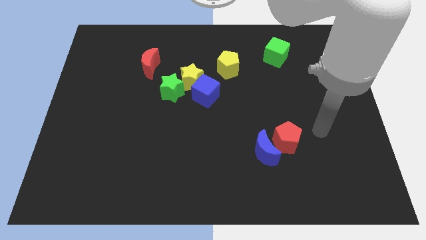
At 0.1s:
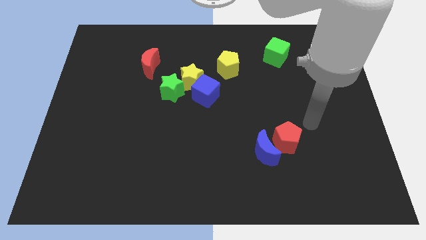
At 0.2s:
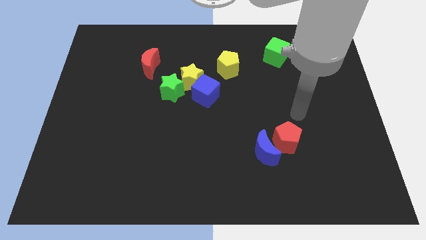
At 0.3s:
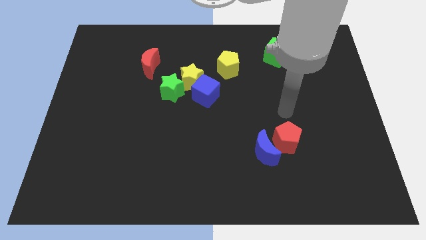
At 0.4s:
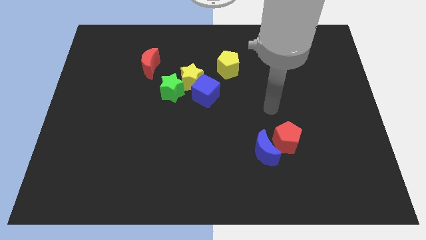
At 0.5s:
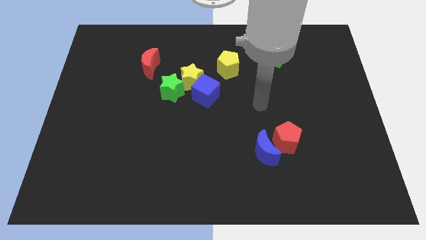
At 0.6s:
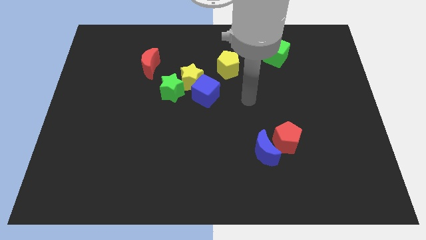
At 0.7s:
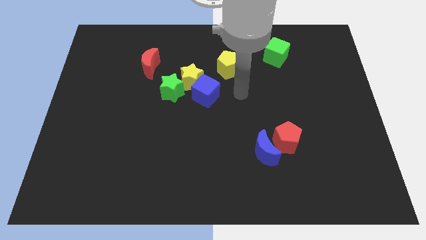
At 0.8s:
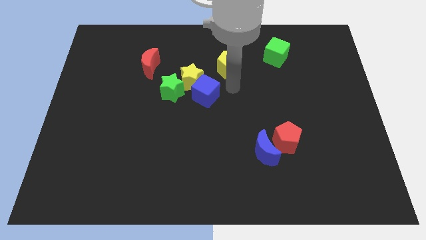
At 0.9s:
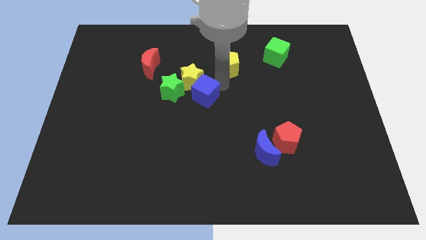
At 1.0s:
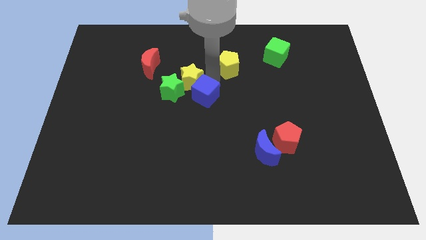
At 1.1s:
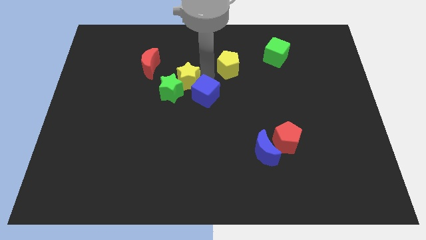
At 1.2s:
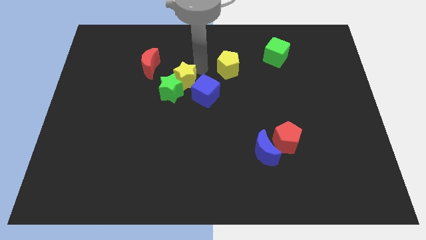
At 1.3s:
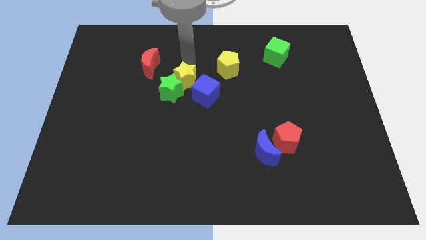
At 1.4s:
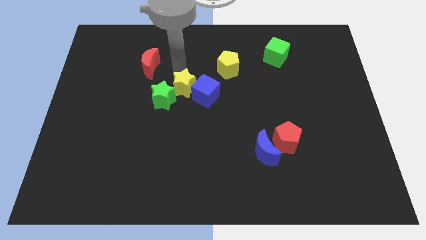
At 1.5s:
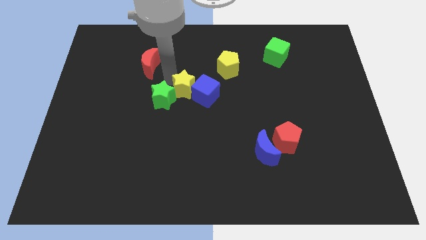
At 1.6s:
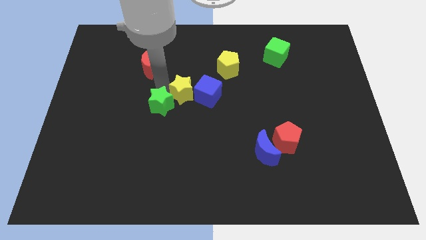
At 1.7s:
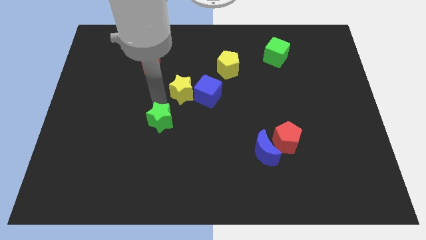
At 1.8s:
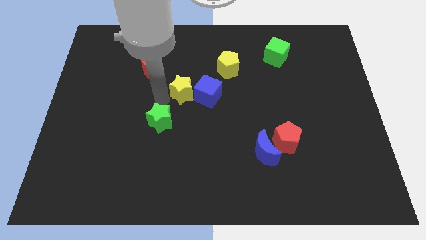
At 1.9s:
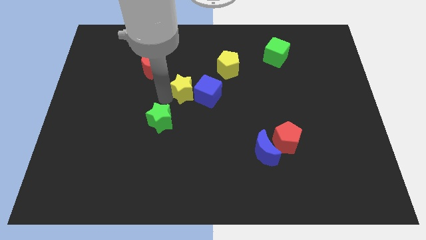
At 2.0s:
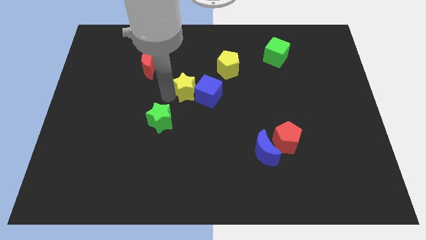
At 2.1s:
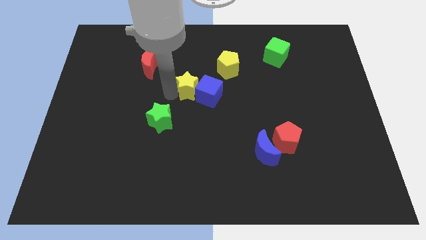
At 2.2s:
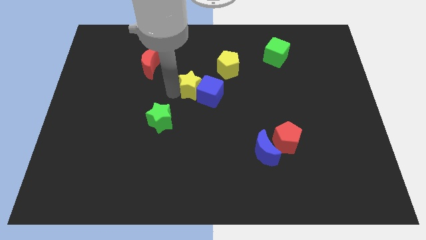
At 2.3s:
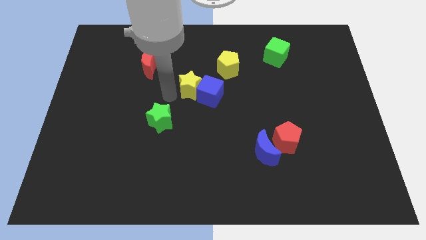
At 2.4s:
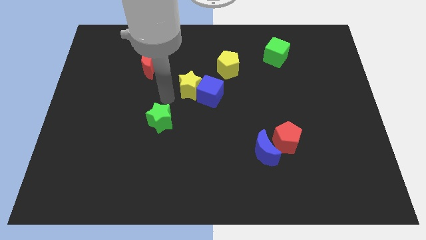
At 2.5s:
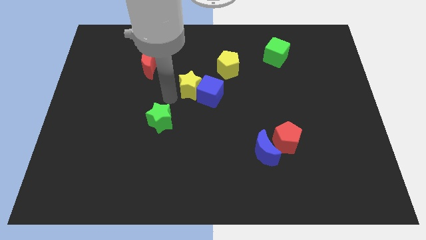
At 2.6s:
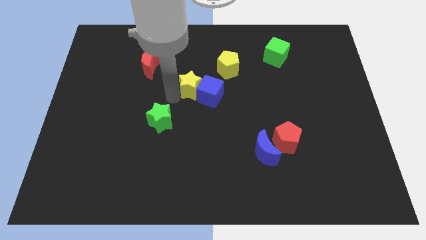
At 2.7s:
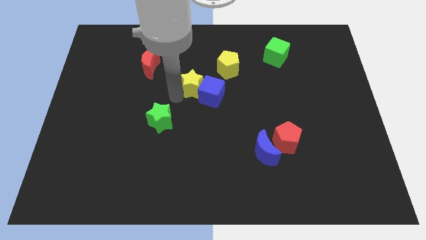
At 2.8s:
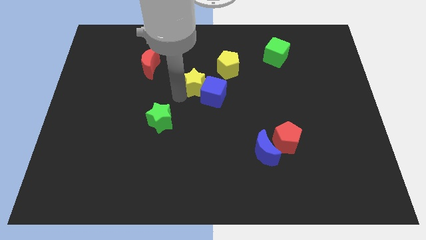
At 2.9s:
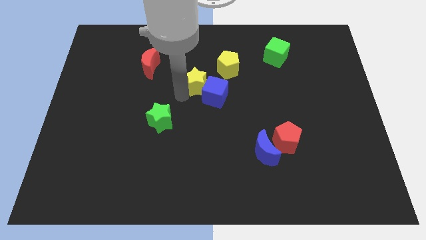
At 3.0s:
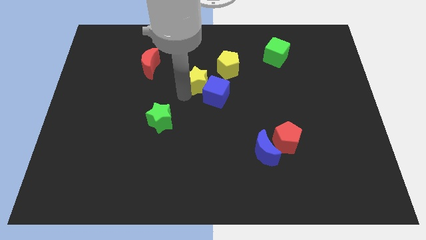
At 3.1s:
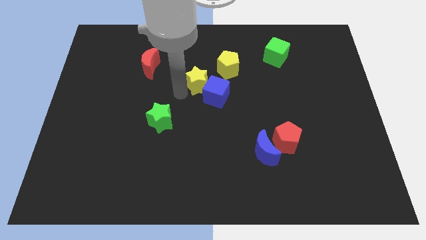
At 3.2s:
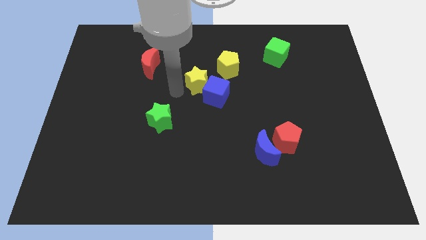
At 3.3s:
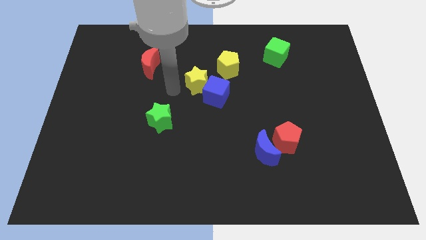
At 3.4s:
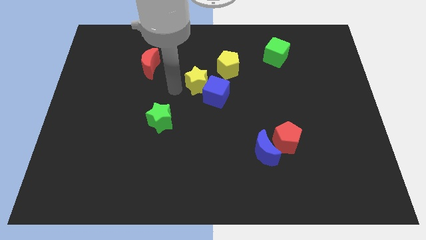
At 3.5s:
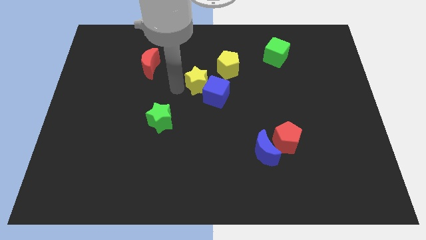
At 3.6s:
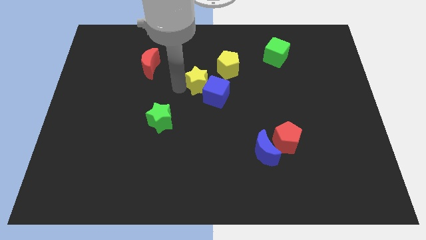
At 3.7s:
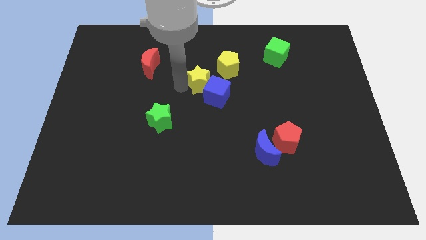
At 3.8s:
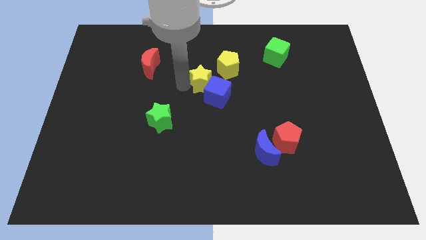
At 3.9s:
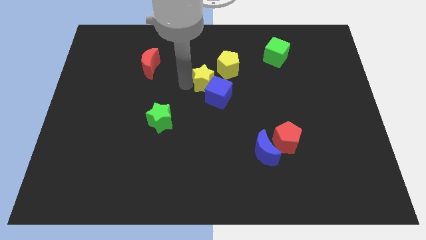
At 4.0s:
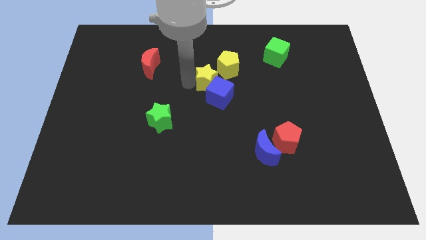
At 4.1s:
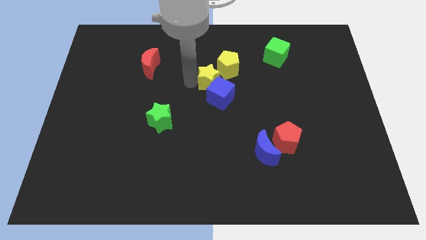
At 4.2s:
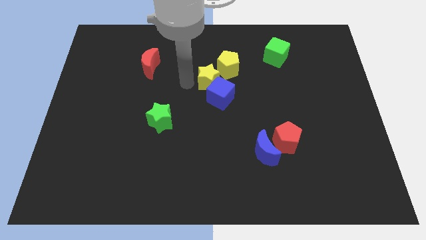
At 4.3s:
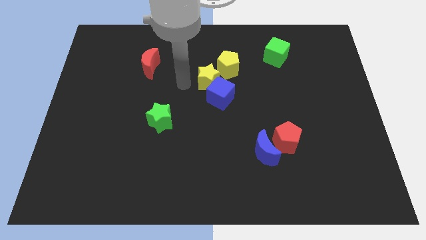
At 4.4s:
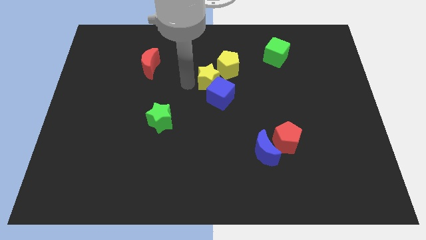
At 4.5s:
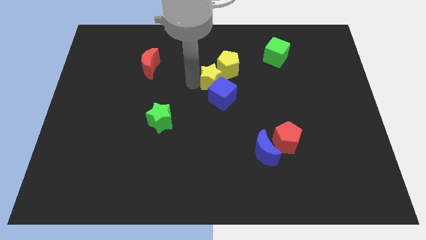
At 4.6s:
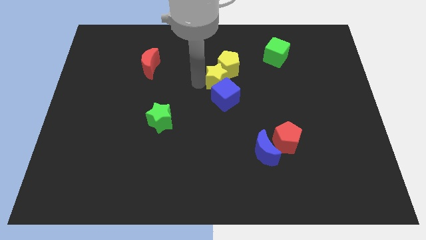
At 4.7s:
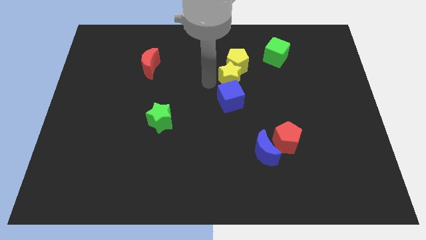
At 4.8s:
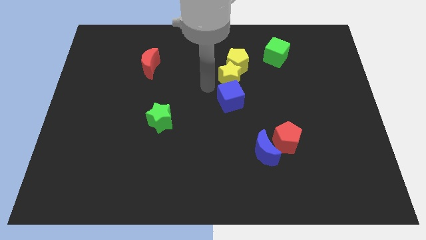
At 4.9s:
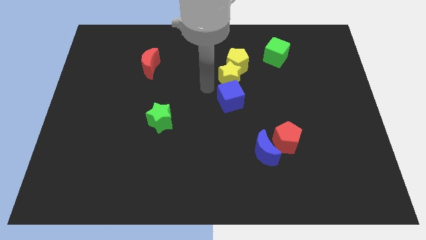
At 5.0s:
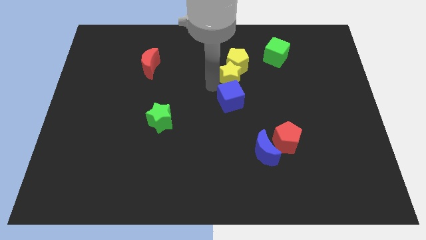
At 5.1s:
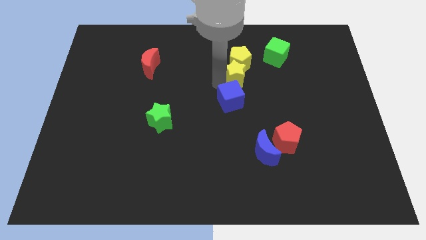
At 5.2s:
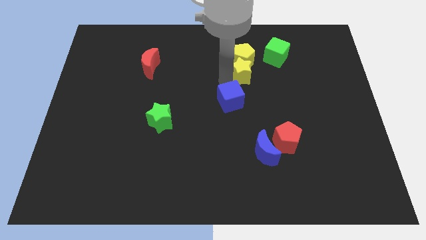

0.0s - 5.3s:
push the yellow star to the bottom left side of the green cube

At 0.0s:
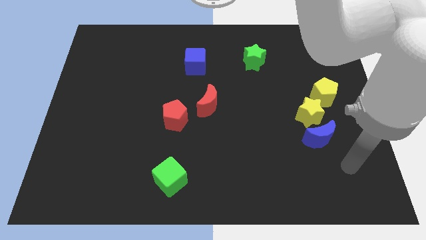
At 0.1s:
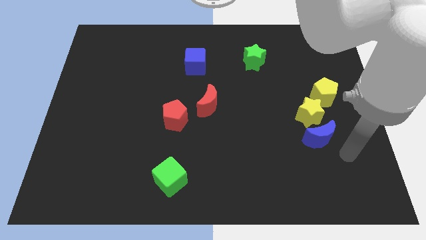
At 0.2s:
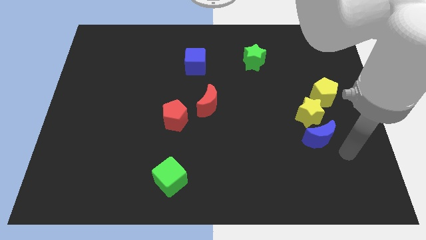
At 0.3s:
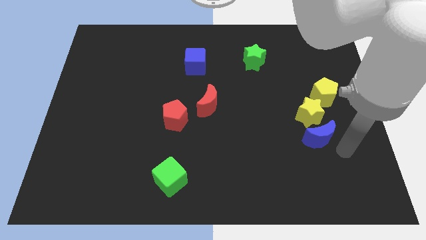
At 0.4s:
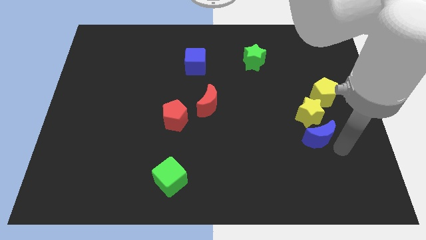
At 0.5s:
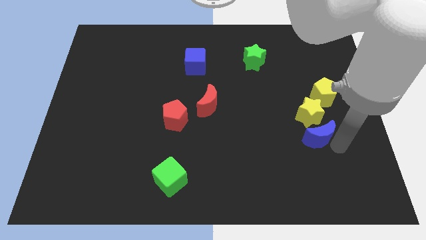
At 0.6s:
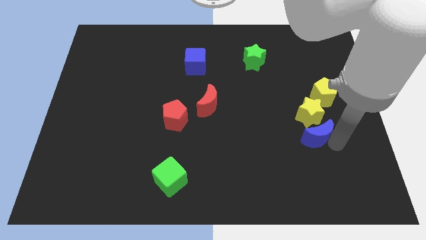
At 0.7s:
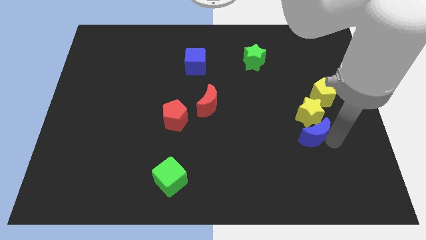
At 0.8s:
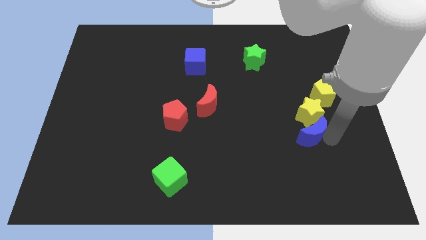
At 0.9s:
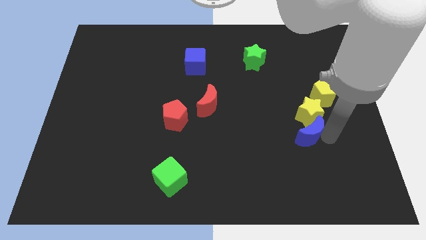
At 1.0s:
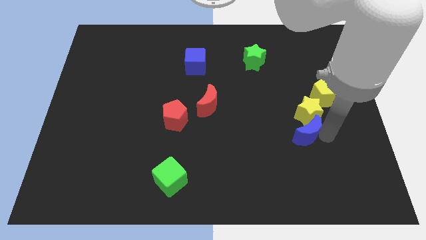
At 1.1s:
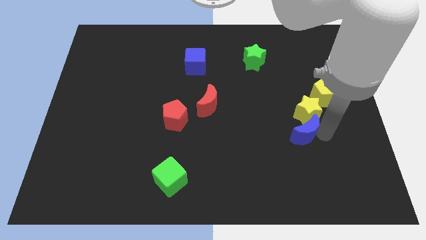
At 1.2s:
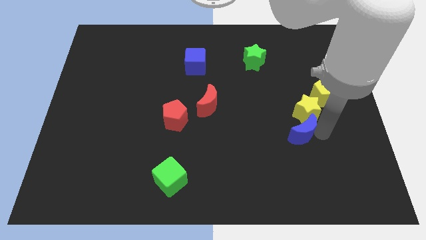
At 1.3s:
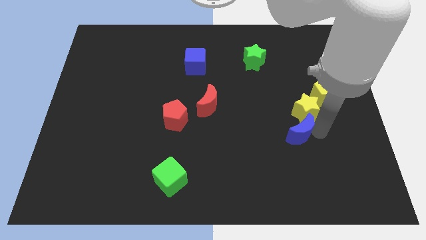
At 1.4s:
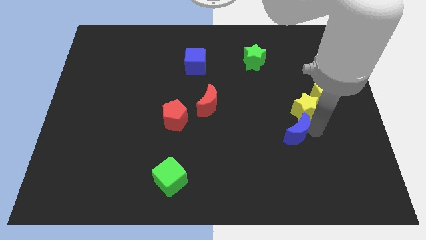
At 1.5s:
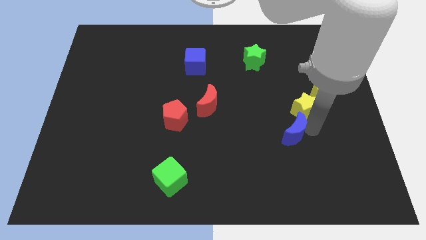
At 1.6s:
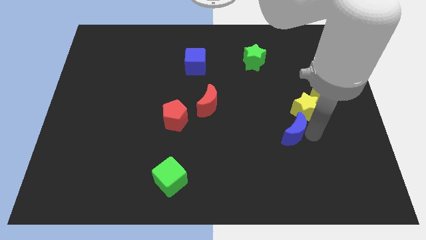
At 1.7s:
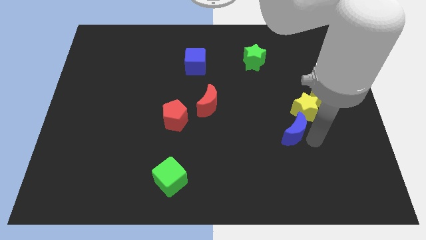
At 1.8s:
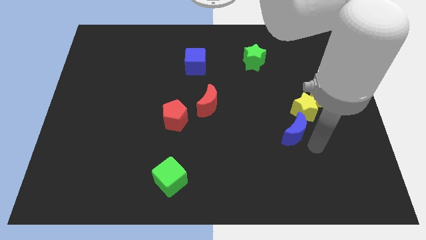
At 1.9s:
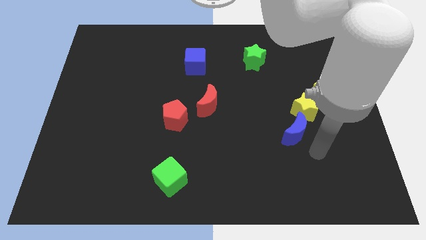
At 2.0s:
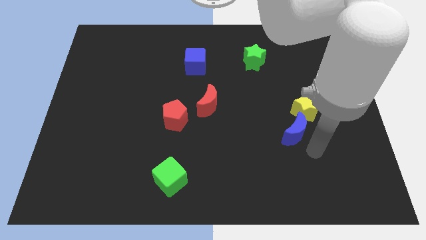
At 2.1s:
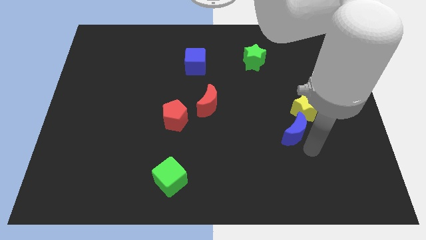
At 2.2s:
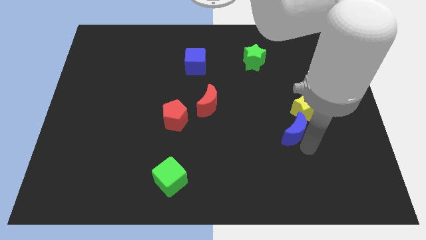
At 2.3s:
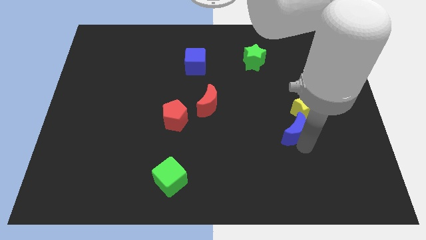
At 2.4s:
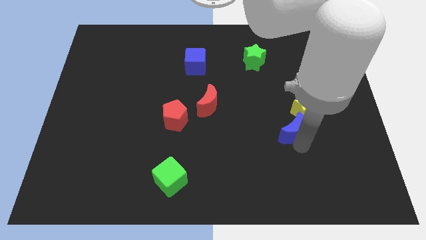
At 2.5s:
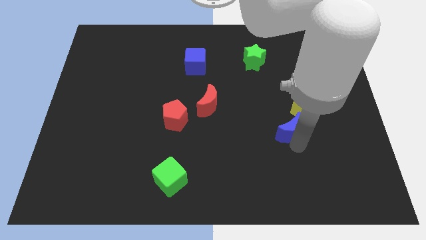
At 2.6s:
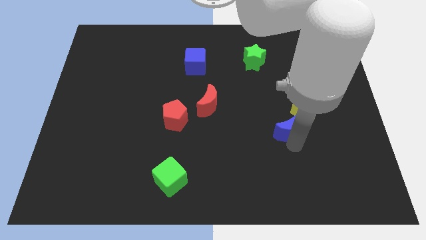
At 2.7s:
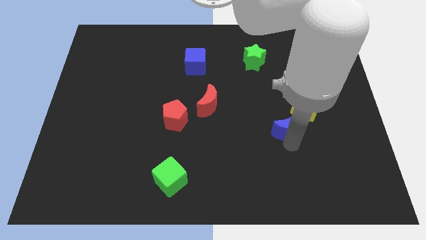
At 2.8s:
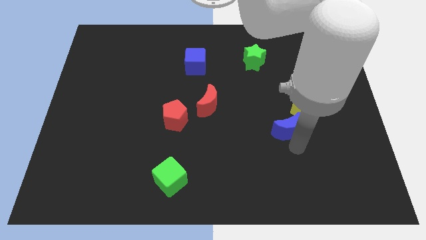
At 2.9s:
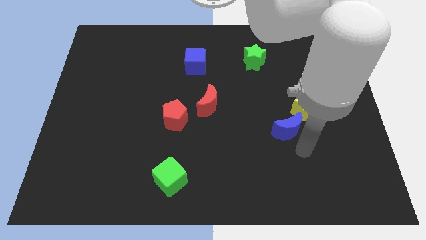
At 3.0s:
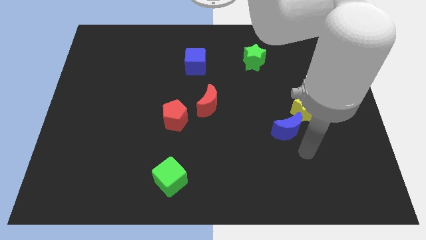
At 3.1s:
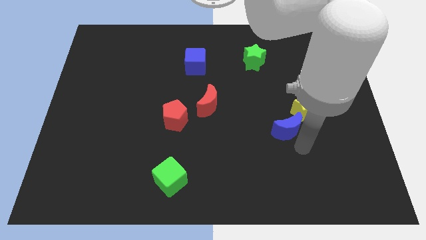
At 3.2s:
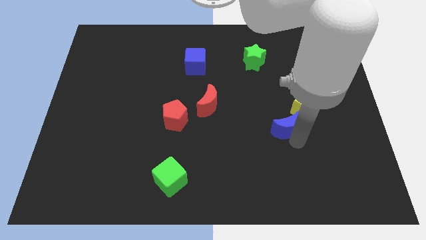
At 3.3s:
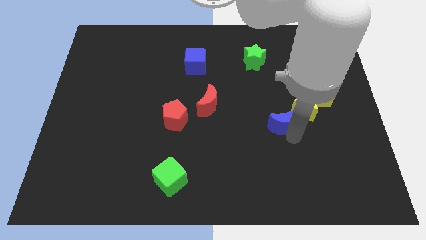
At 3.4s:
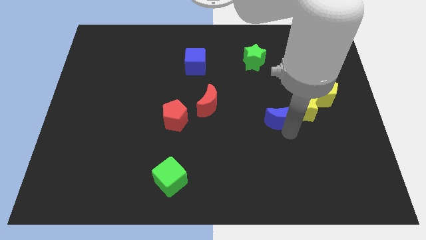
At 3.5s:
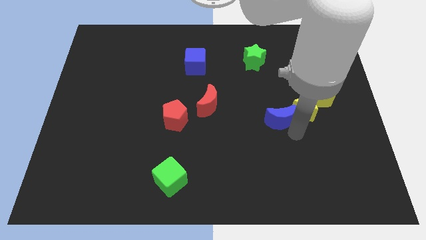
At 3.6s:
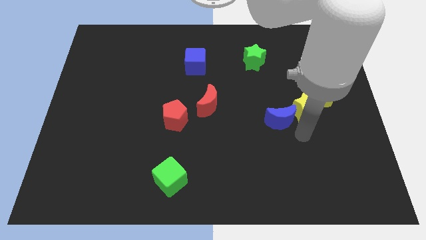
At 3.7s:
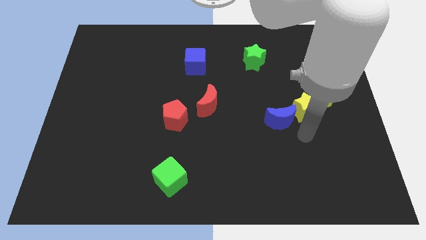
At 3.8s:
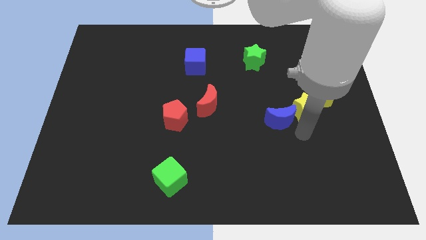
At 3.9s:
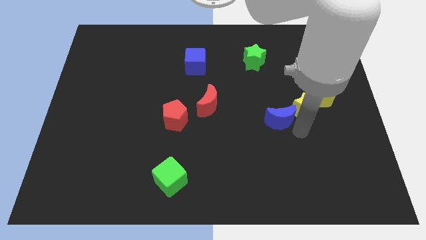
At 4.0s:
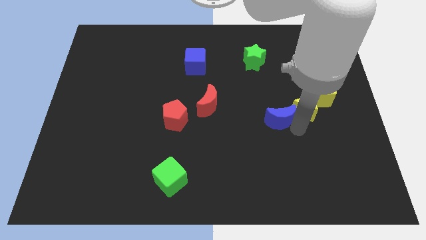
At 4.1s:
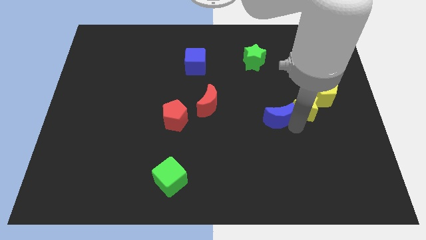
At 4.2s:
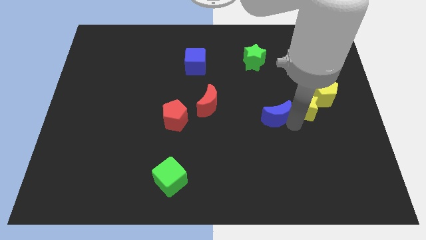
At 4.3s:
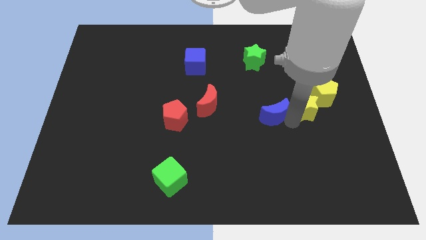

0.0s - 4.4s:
push the blue moon right of the red moon
